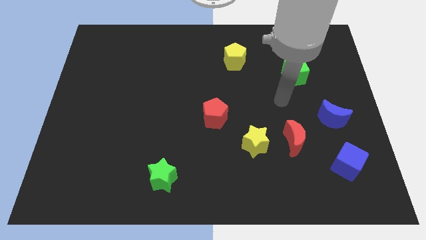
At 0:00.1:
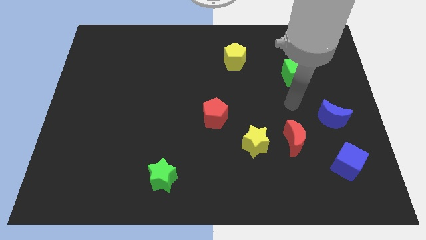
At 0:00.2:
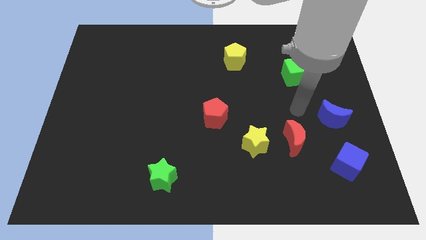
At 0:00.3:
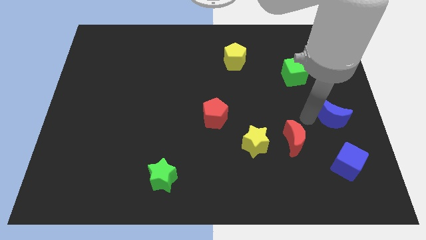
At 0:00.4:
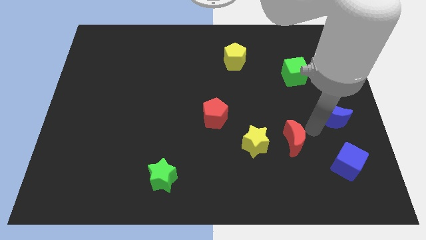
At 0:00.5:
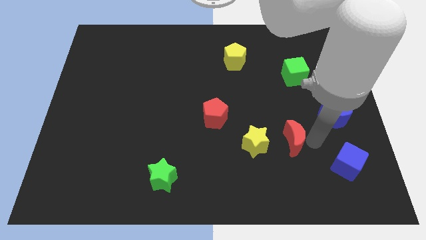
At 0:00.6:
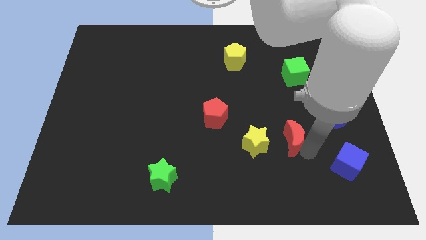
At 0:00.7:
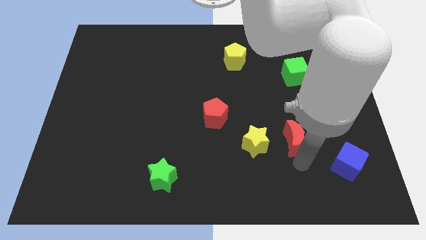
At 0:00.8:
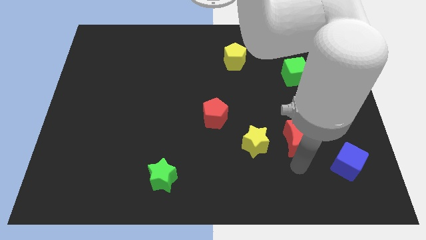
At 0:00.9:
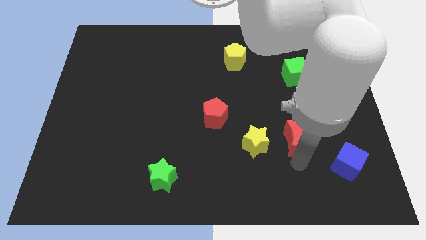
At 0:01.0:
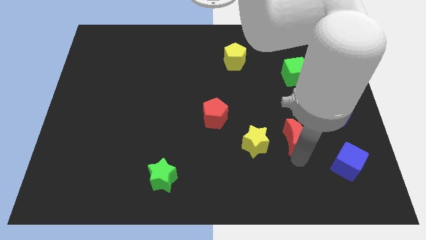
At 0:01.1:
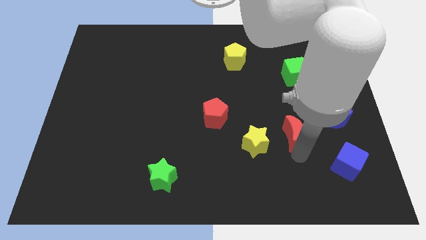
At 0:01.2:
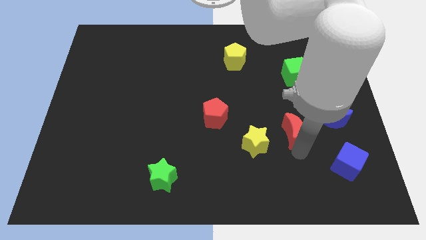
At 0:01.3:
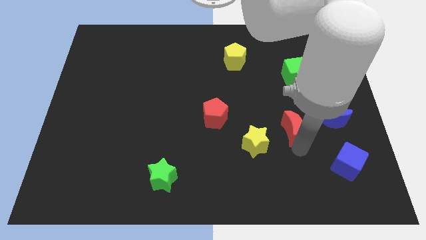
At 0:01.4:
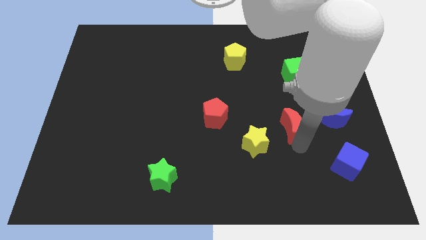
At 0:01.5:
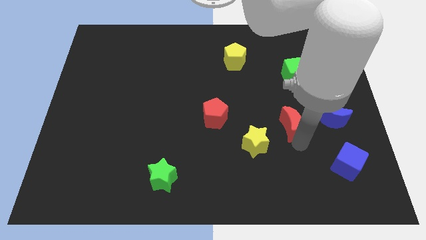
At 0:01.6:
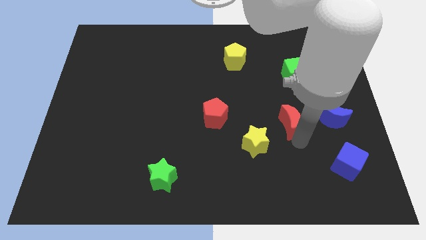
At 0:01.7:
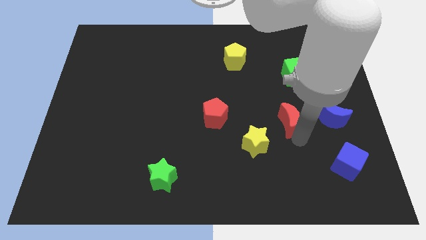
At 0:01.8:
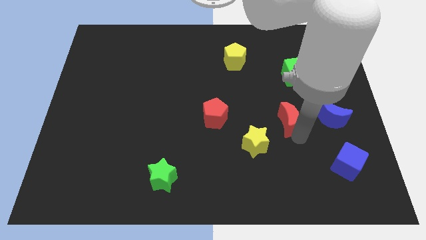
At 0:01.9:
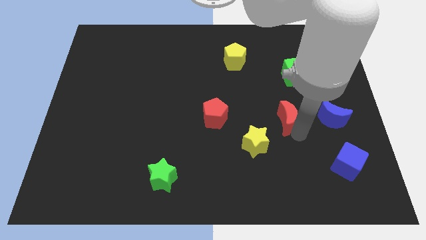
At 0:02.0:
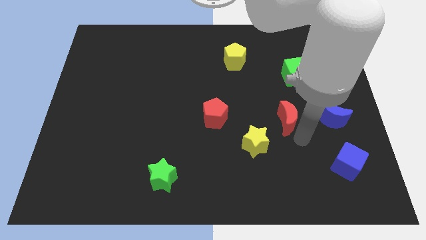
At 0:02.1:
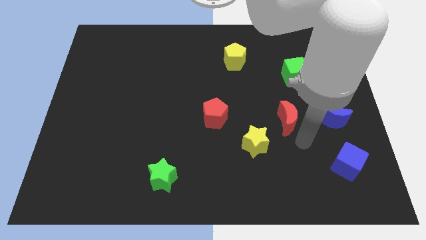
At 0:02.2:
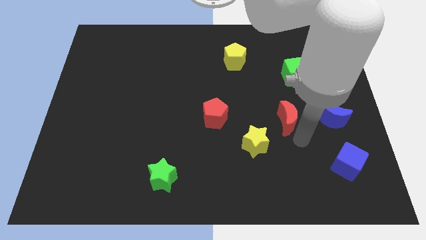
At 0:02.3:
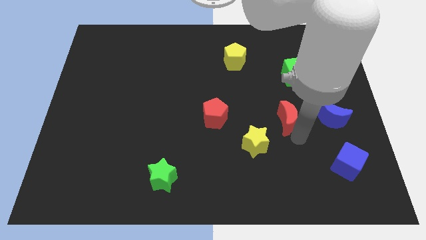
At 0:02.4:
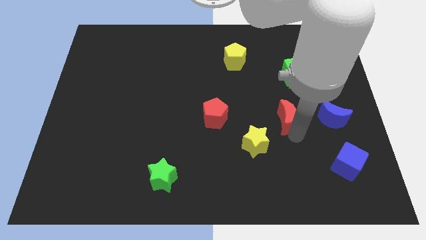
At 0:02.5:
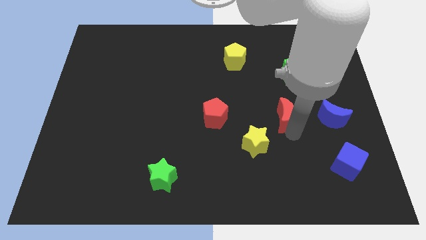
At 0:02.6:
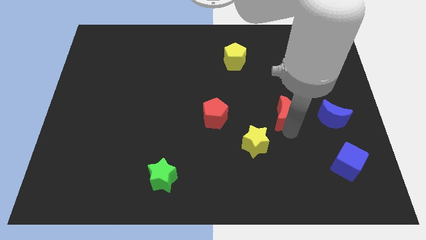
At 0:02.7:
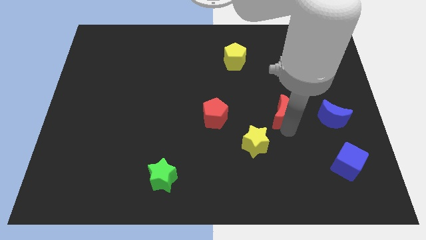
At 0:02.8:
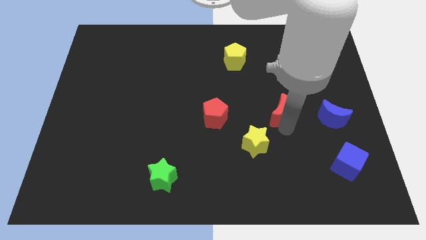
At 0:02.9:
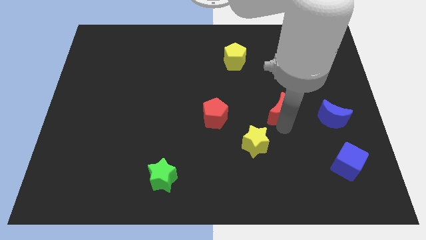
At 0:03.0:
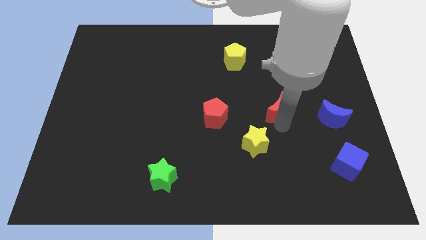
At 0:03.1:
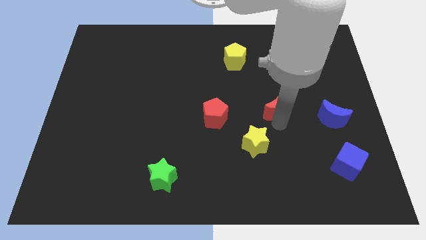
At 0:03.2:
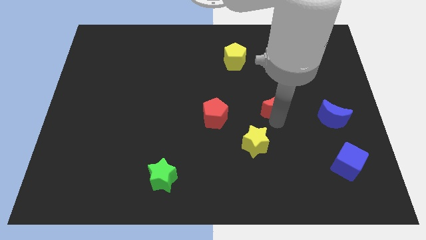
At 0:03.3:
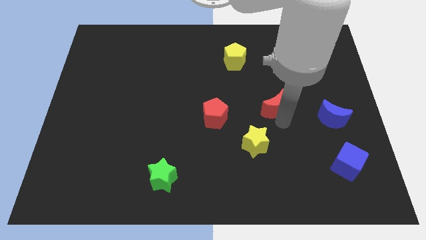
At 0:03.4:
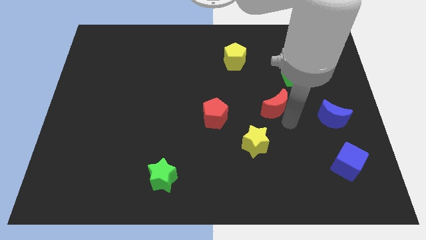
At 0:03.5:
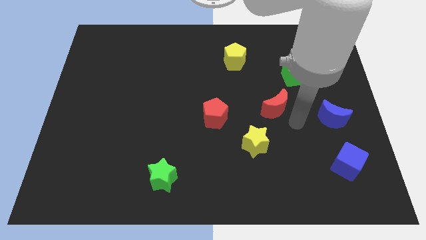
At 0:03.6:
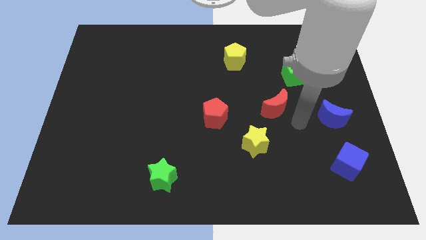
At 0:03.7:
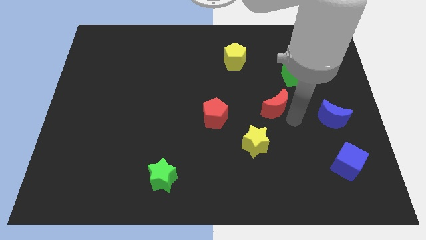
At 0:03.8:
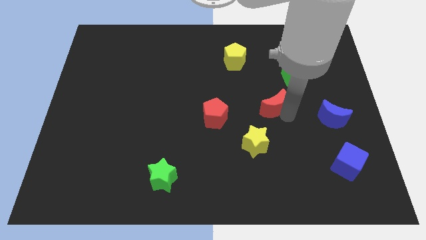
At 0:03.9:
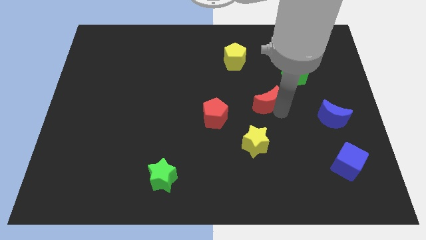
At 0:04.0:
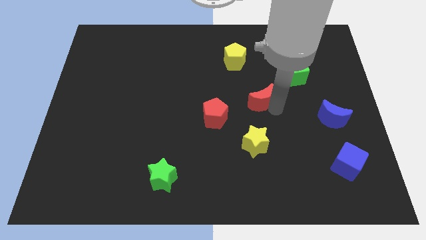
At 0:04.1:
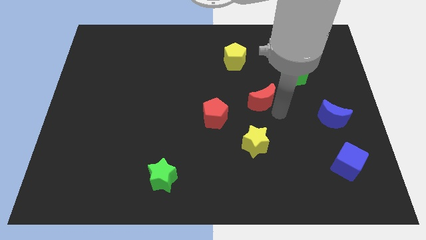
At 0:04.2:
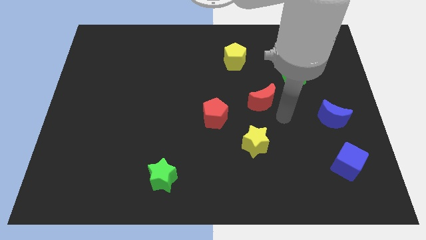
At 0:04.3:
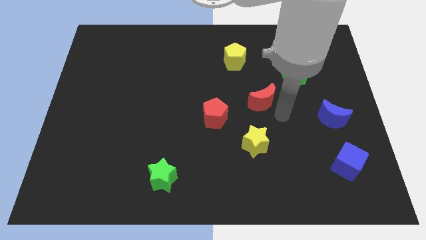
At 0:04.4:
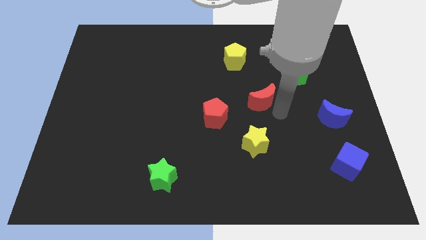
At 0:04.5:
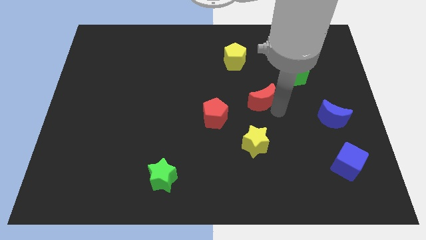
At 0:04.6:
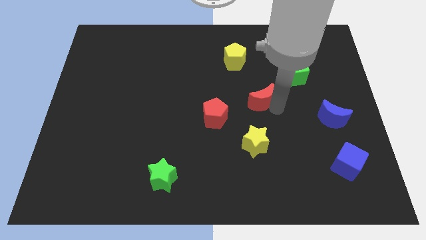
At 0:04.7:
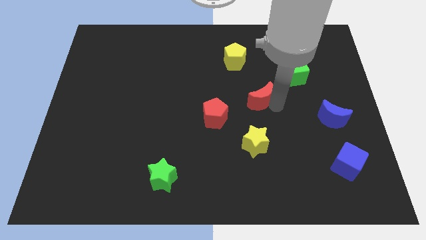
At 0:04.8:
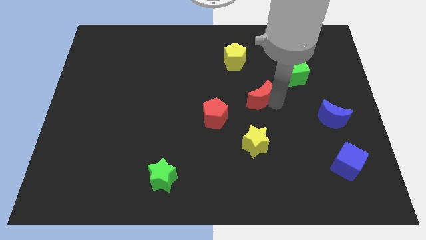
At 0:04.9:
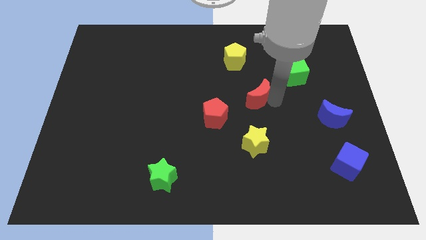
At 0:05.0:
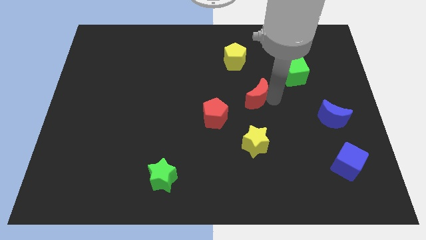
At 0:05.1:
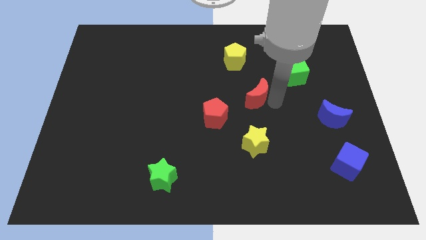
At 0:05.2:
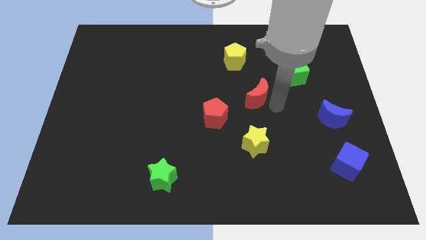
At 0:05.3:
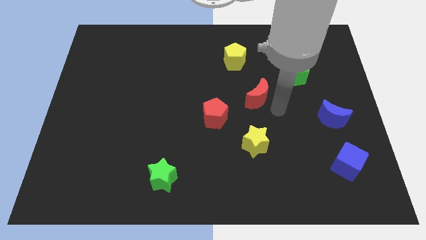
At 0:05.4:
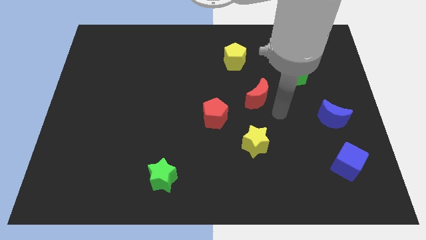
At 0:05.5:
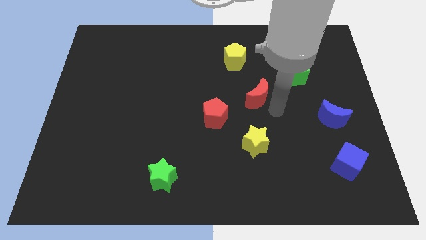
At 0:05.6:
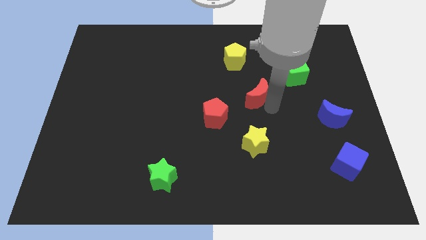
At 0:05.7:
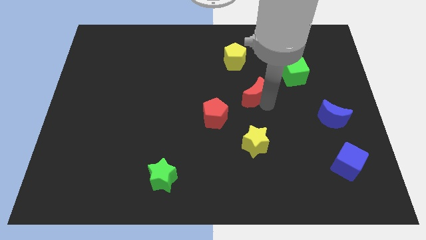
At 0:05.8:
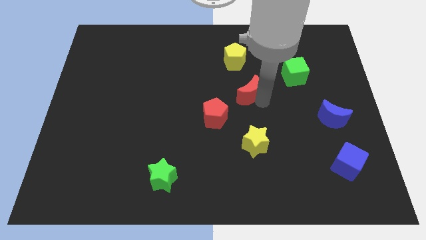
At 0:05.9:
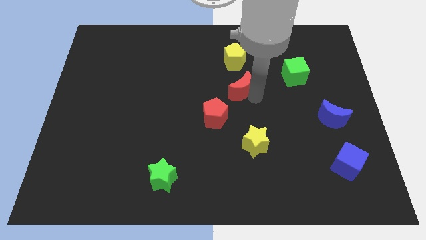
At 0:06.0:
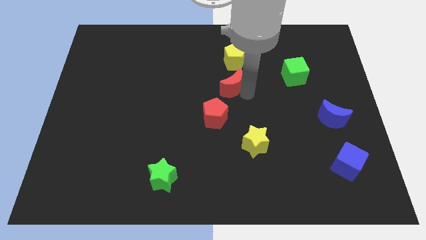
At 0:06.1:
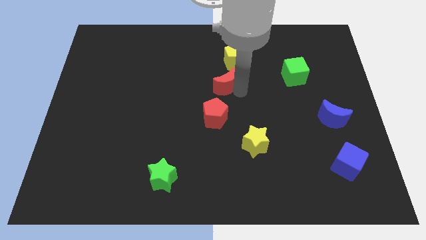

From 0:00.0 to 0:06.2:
push the red moon to the bottom left side of the yellow pentagon
